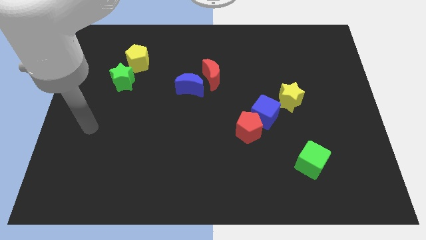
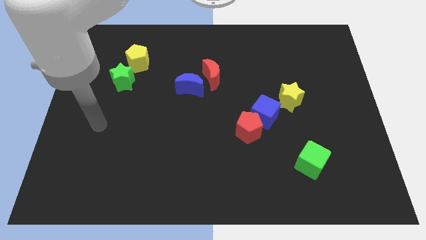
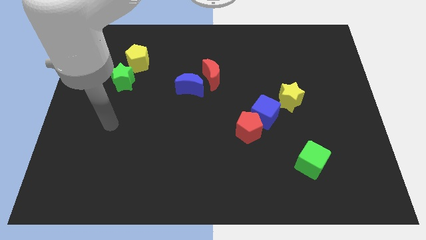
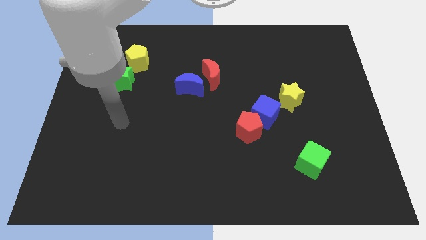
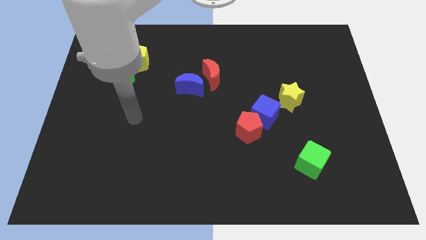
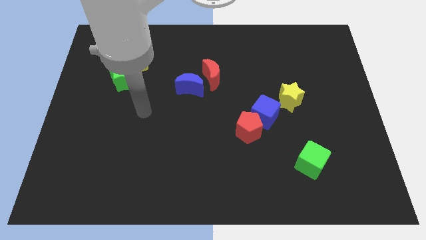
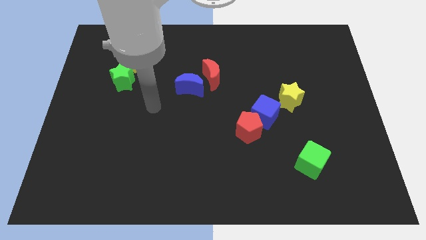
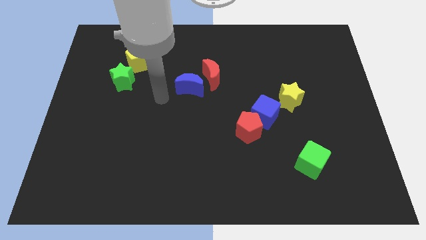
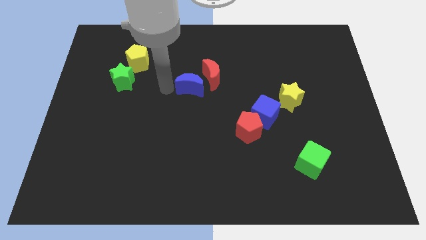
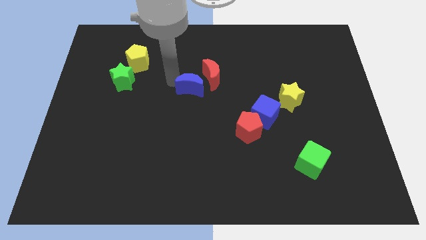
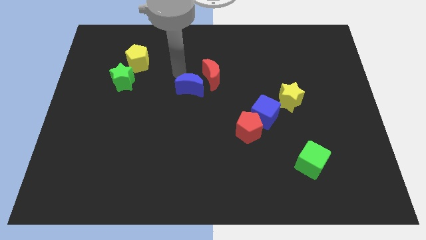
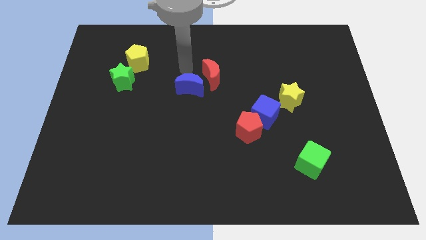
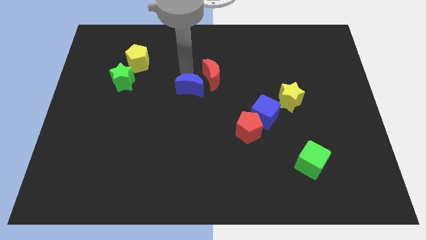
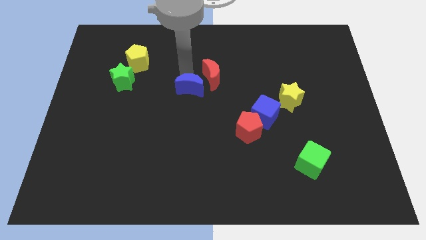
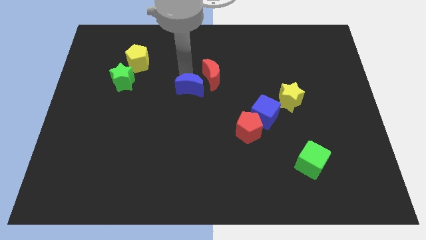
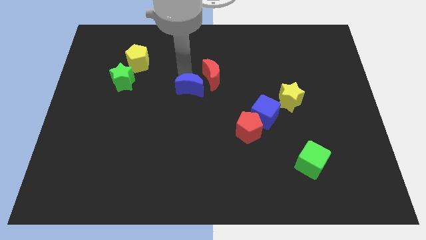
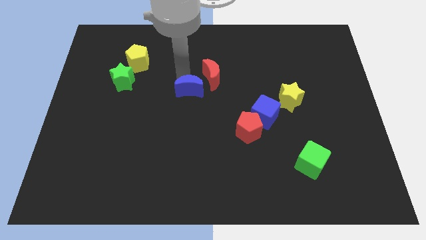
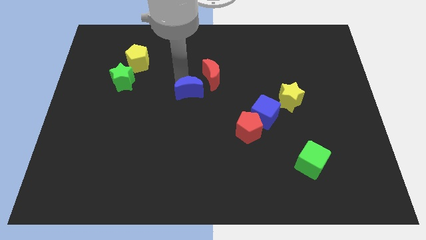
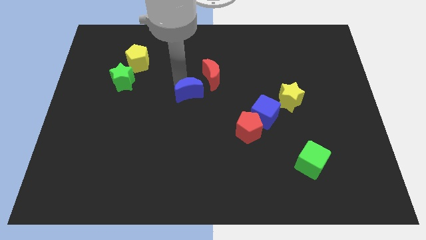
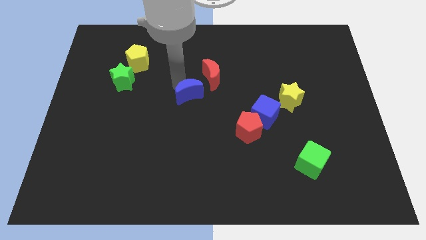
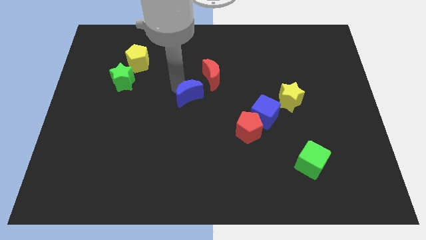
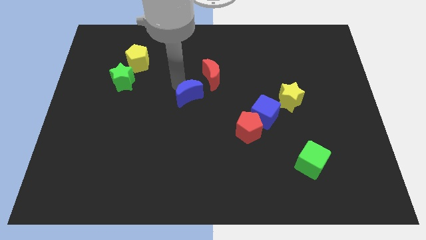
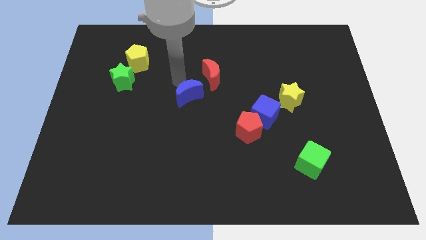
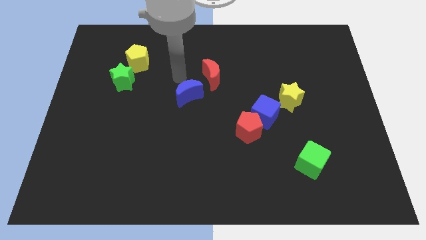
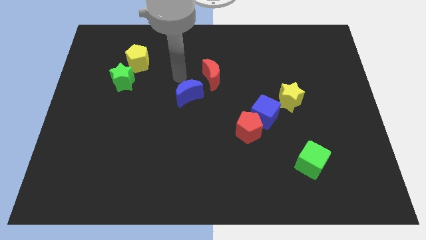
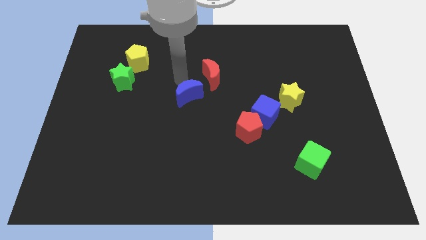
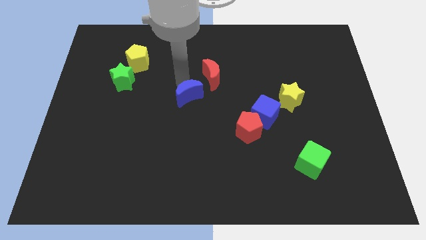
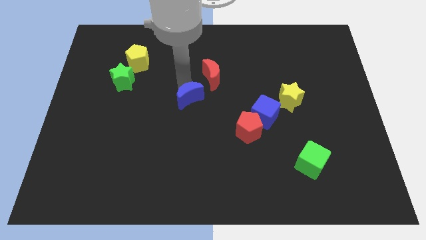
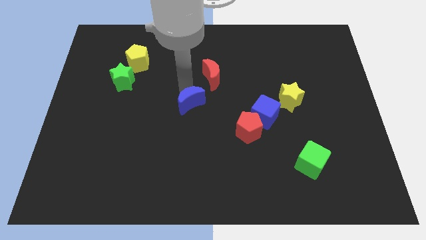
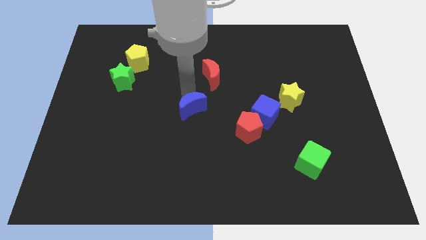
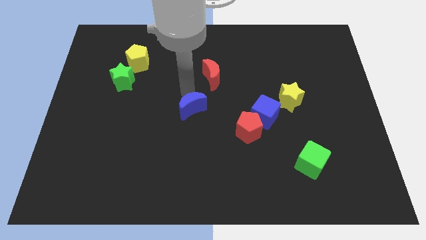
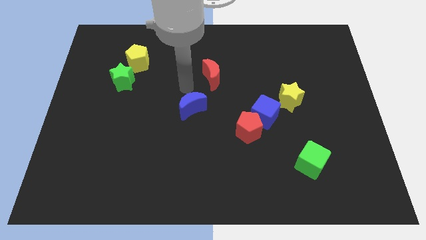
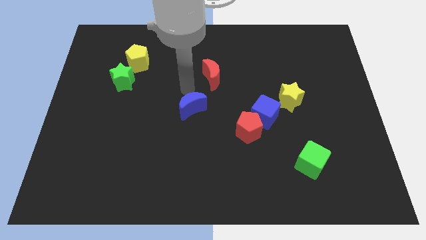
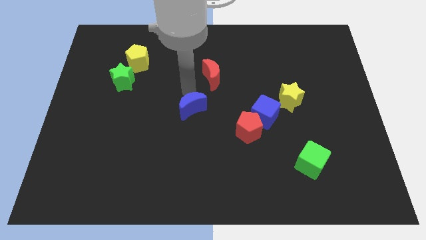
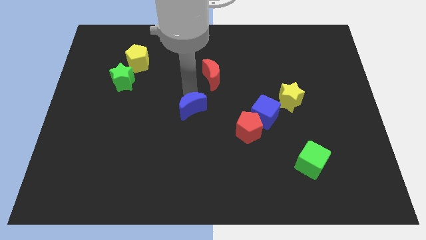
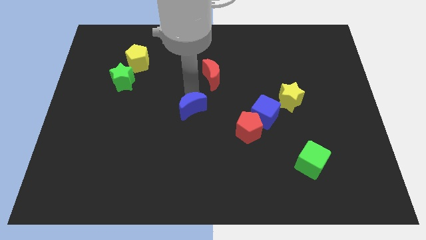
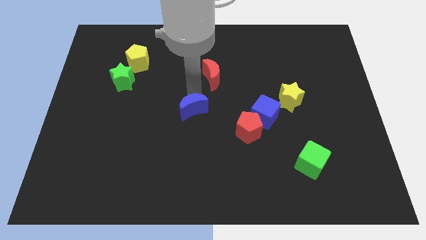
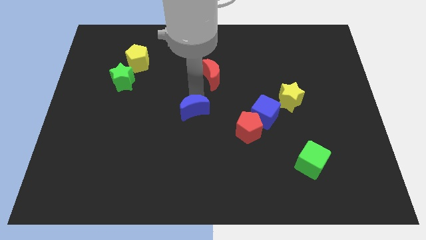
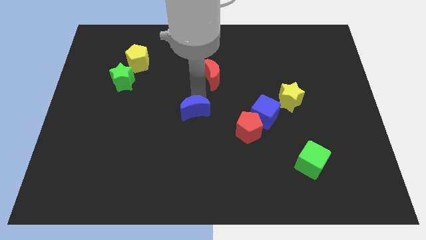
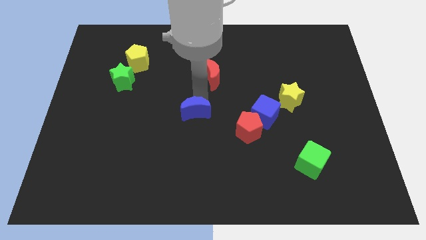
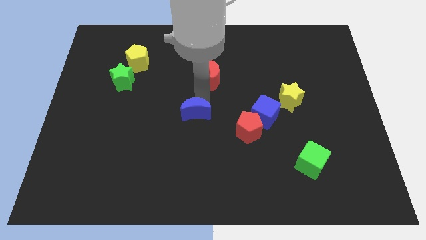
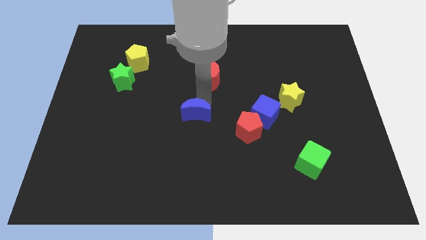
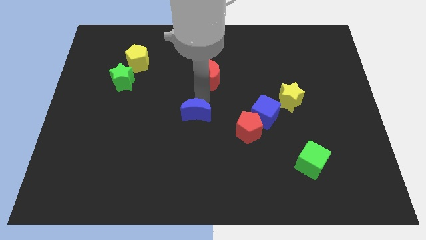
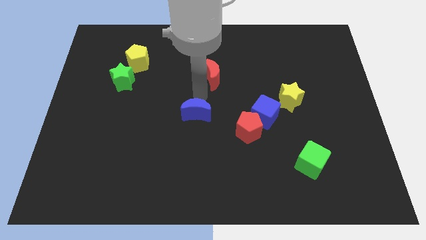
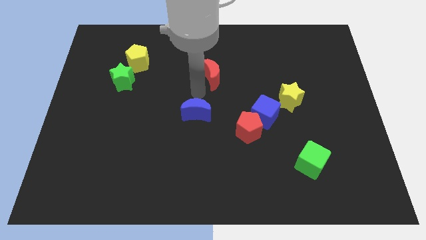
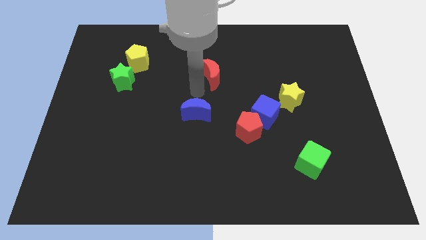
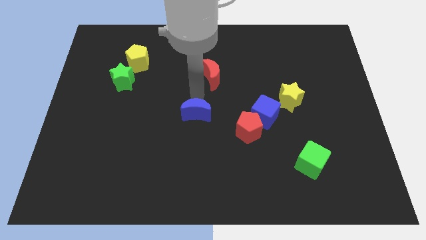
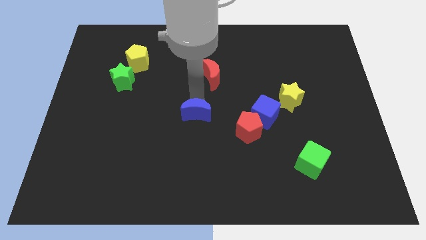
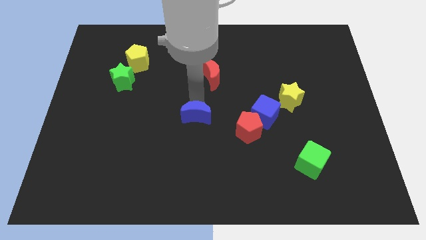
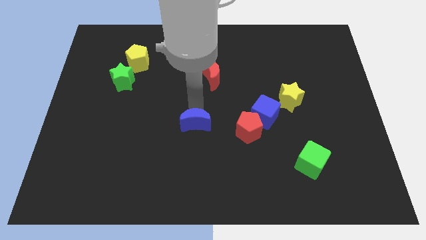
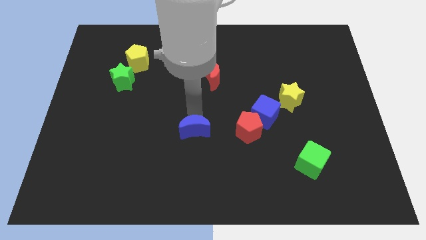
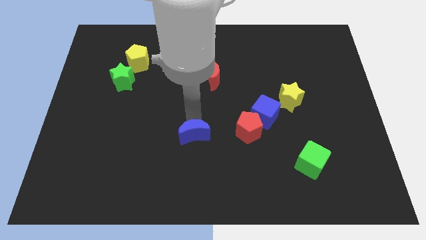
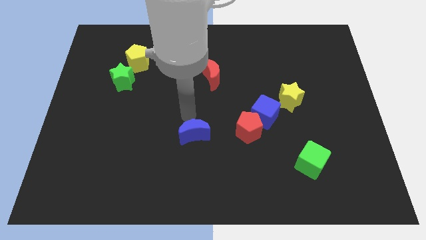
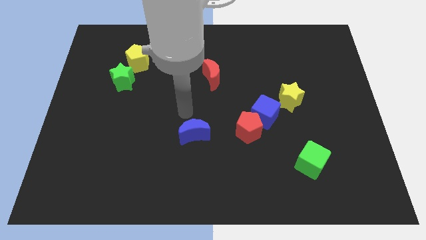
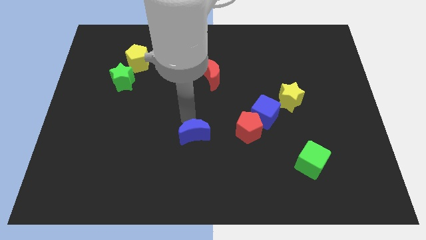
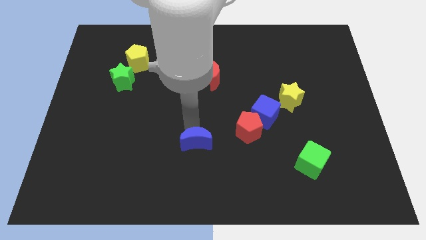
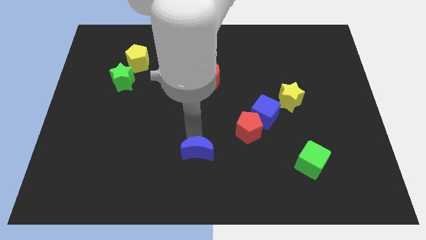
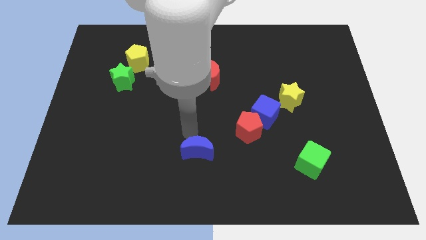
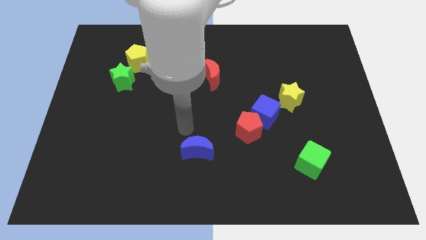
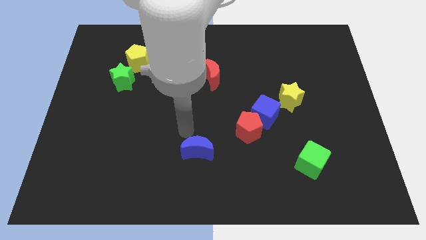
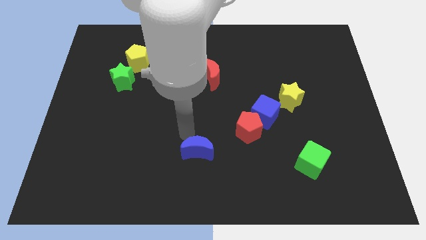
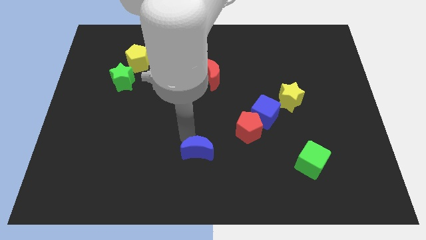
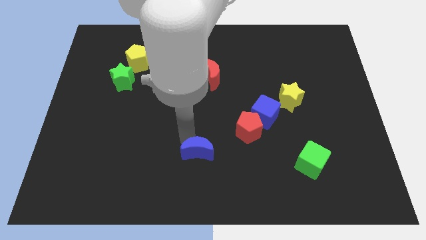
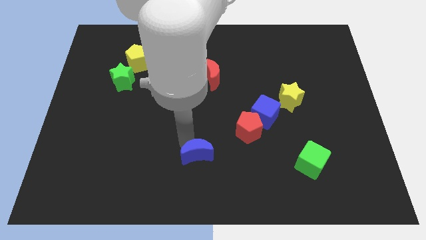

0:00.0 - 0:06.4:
push the blue moon to the bottom side

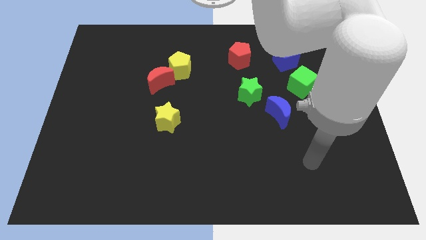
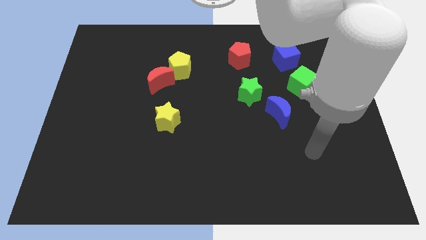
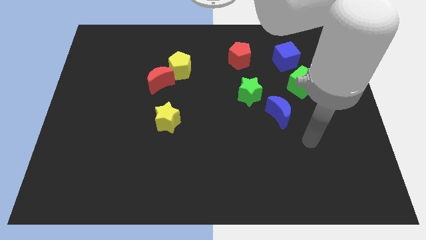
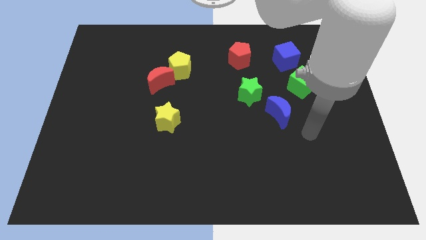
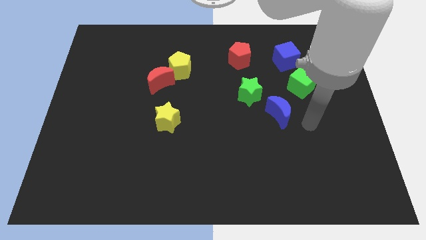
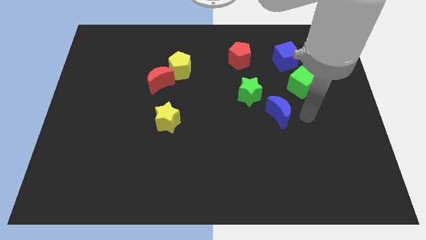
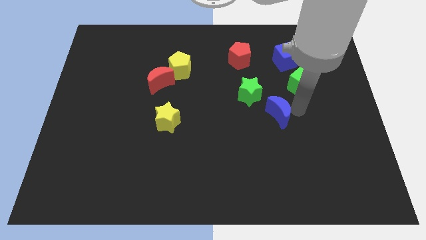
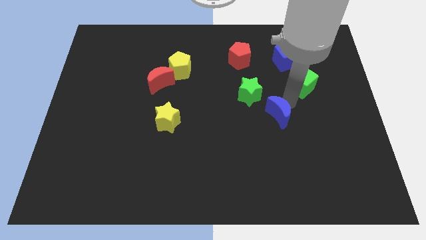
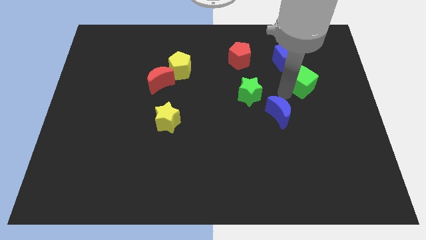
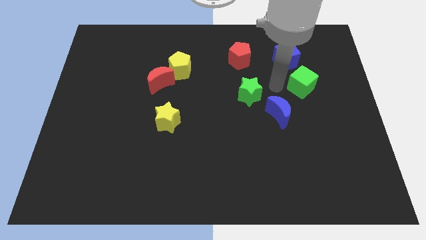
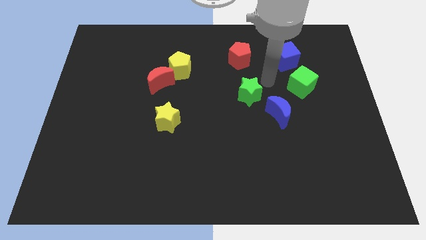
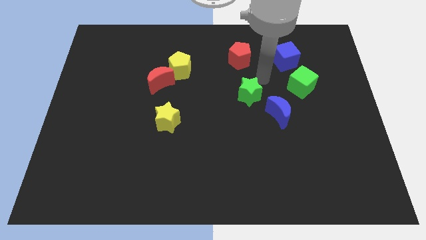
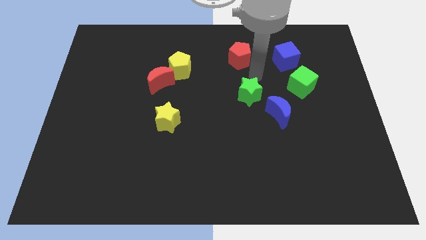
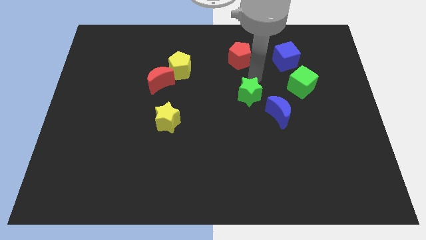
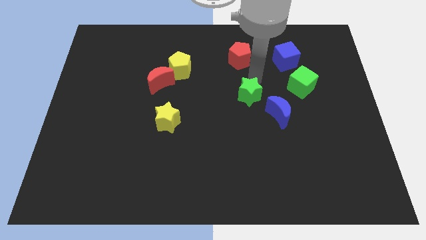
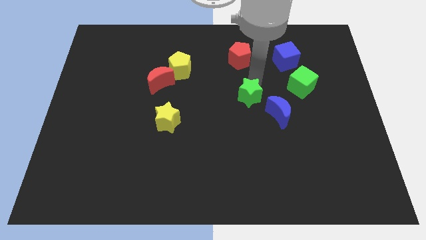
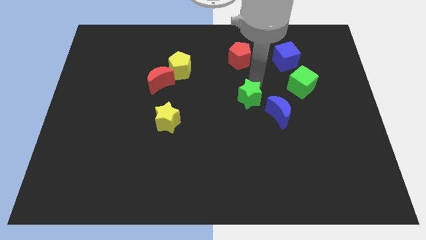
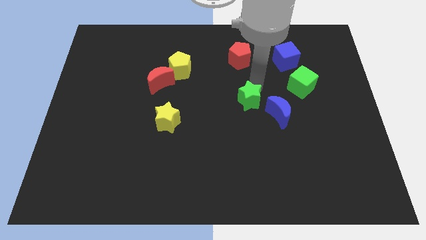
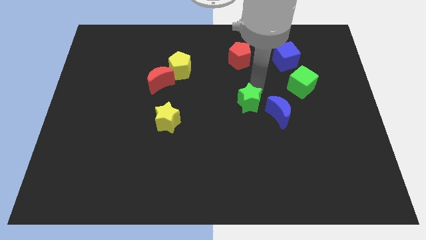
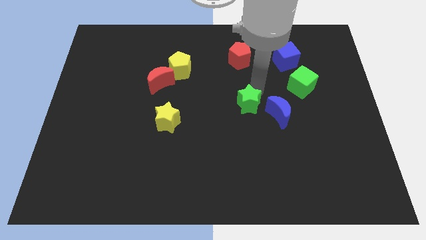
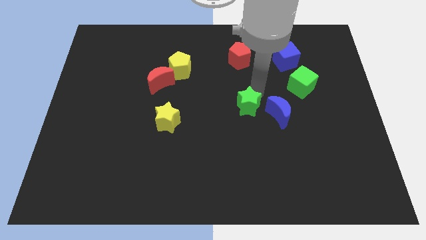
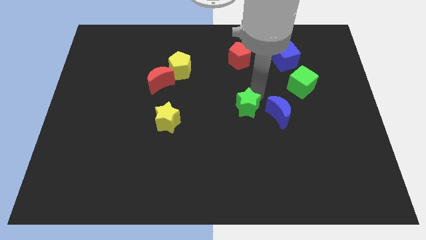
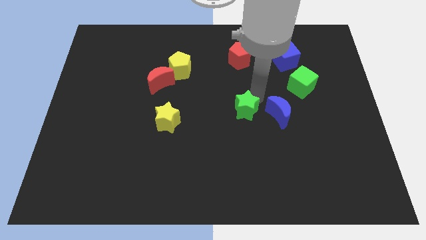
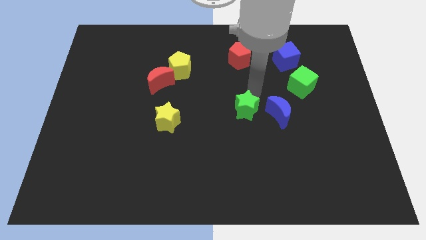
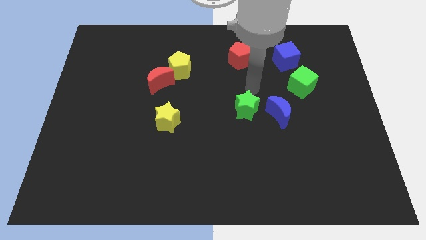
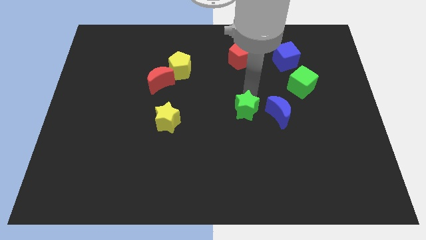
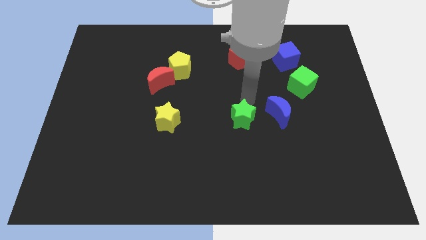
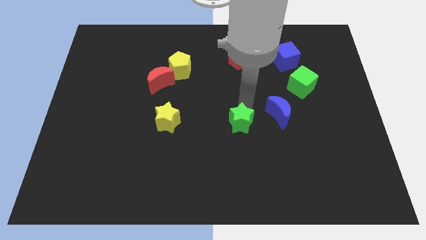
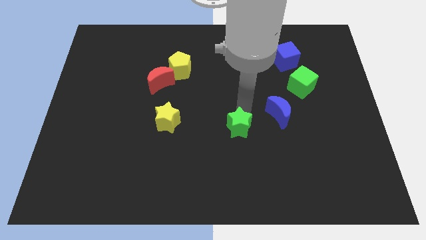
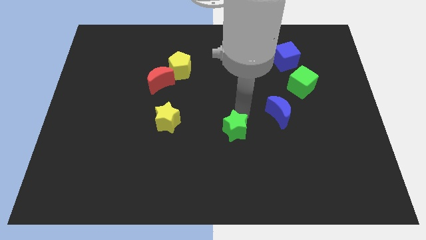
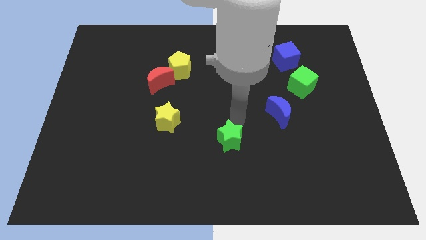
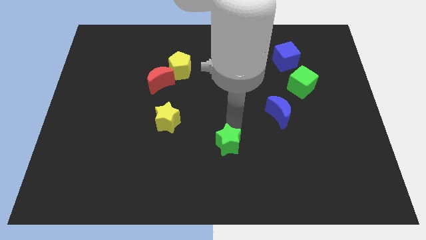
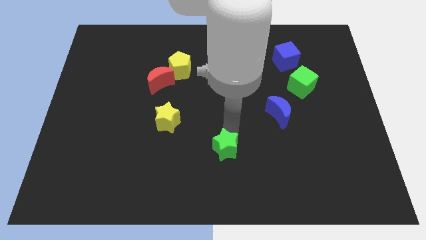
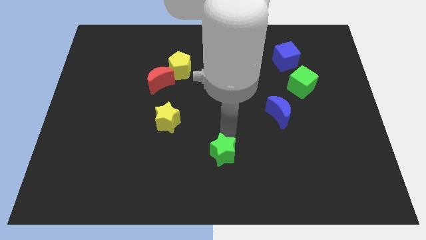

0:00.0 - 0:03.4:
slide the green star to the bottom side
